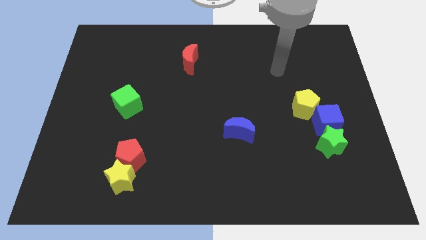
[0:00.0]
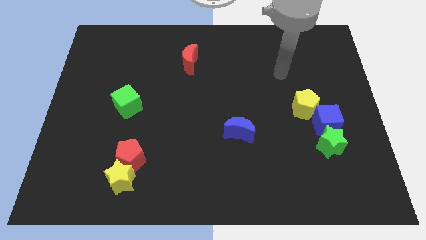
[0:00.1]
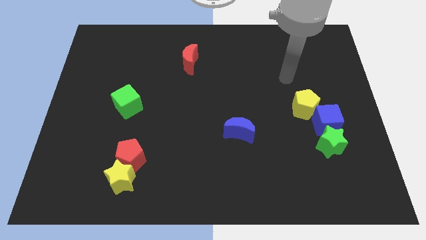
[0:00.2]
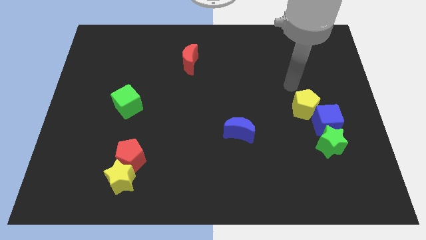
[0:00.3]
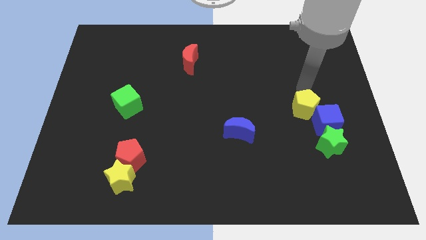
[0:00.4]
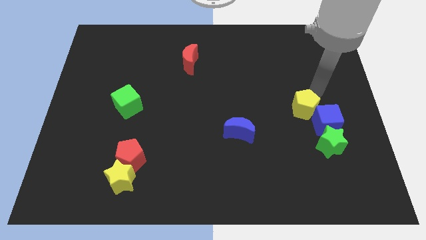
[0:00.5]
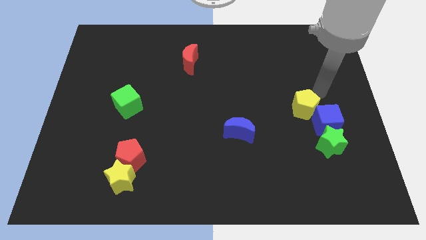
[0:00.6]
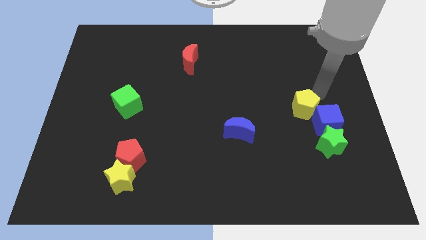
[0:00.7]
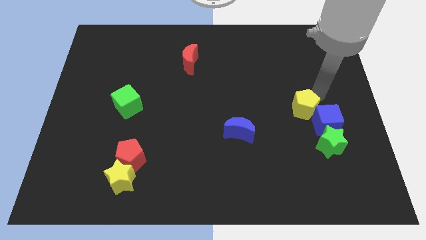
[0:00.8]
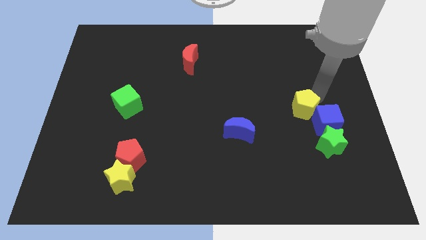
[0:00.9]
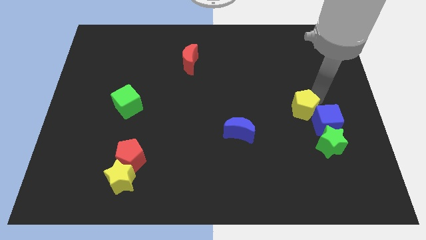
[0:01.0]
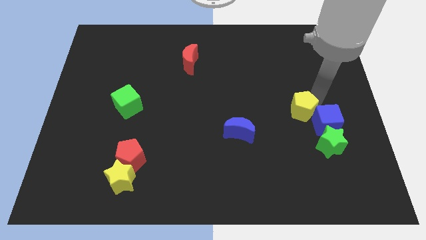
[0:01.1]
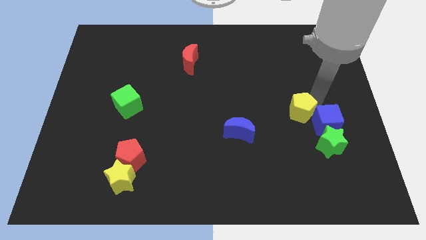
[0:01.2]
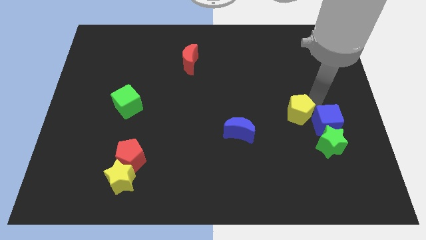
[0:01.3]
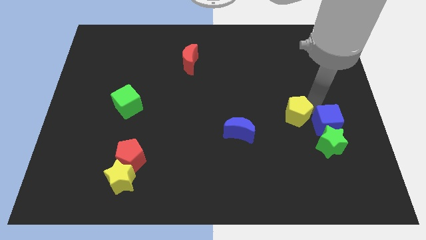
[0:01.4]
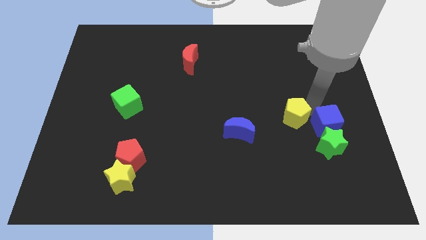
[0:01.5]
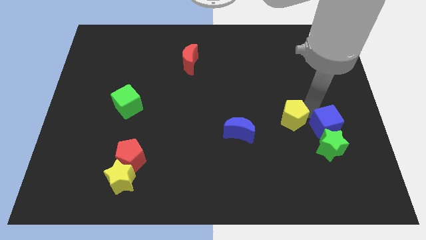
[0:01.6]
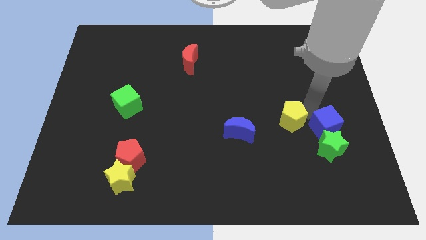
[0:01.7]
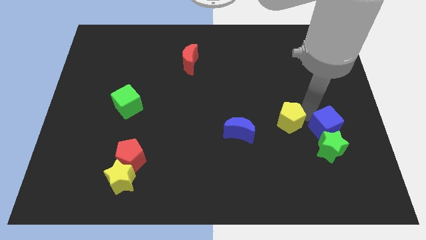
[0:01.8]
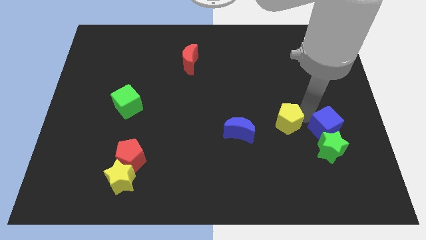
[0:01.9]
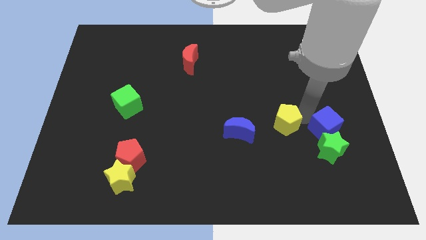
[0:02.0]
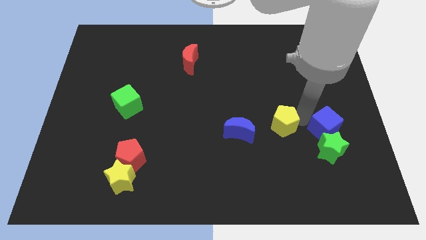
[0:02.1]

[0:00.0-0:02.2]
push the yellow pentagon diagonally downwards and left slightly

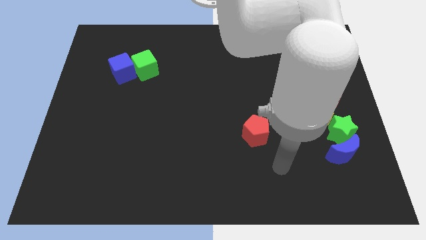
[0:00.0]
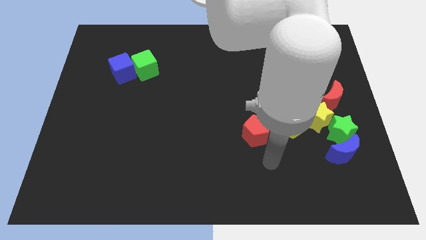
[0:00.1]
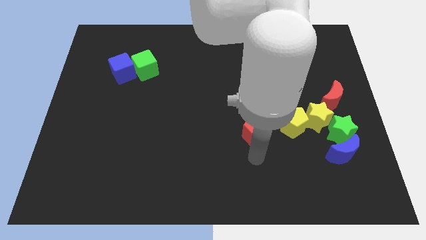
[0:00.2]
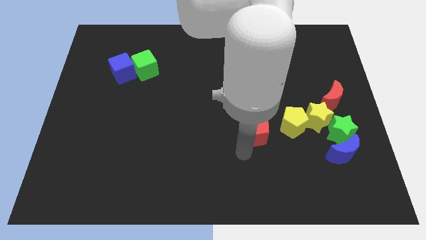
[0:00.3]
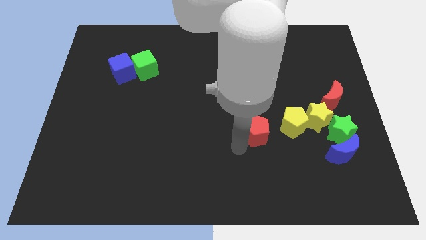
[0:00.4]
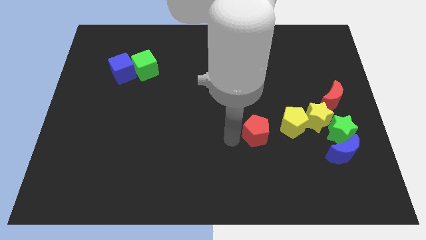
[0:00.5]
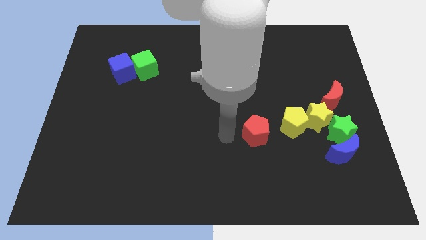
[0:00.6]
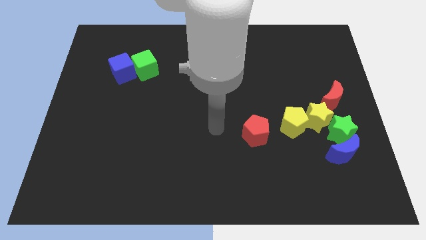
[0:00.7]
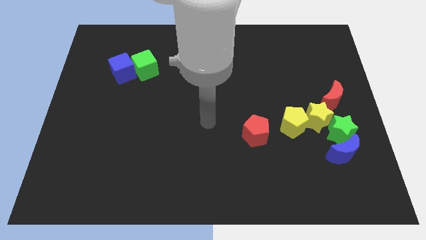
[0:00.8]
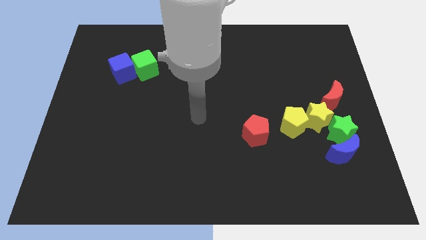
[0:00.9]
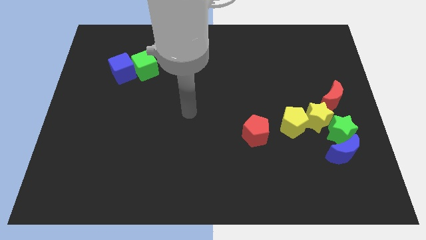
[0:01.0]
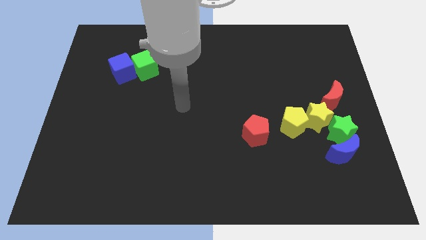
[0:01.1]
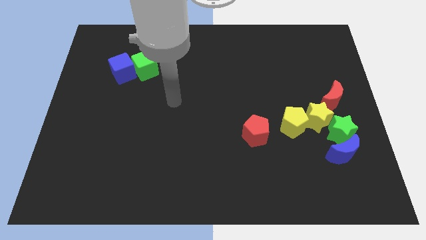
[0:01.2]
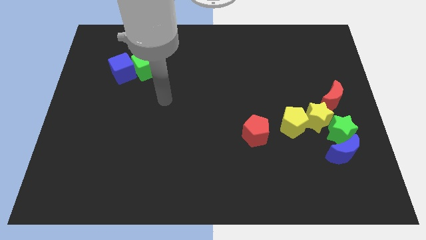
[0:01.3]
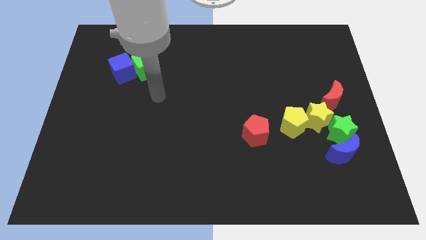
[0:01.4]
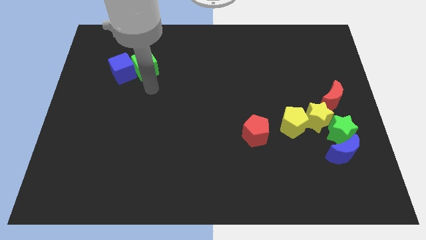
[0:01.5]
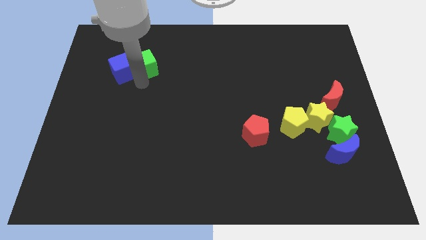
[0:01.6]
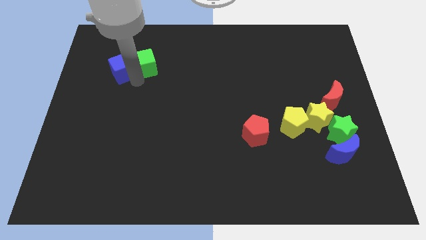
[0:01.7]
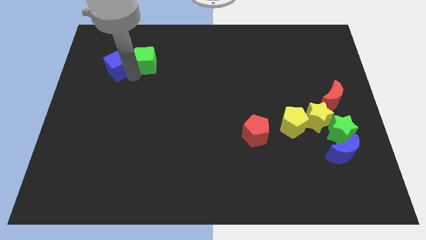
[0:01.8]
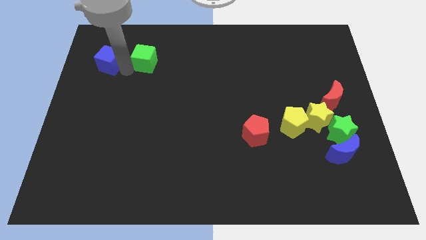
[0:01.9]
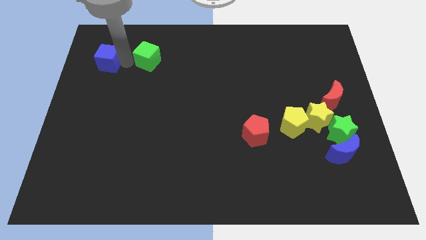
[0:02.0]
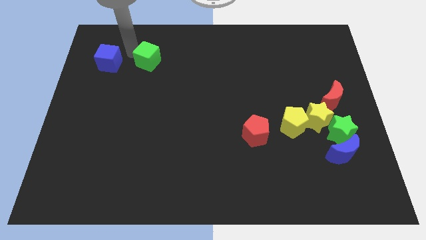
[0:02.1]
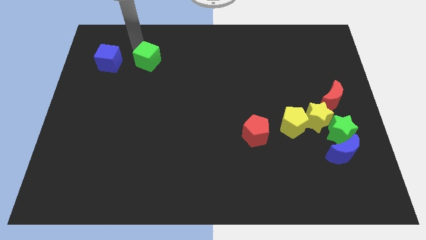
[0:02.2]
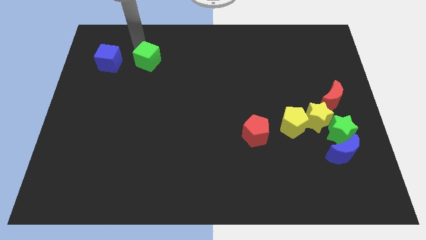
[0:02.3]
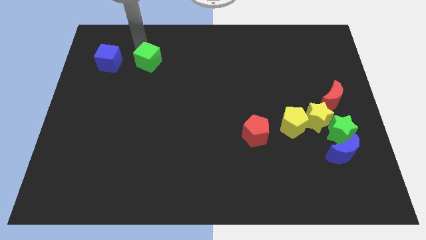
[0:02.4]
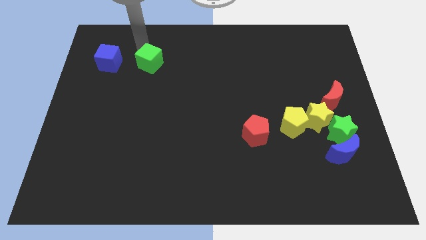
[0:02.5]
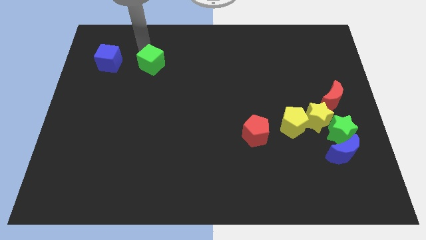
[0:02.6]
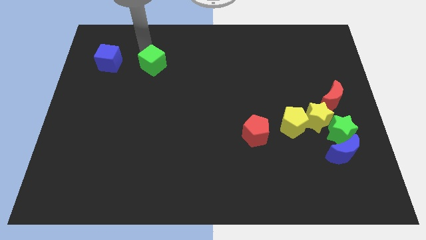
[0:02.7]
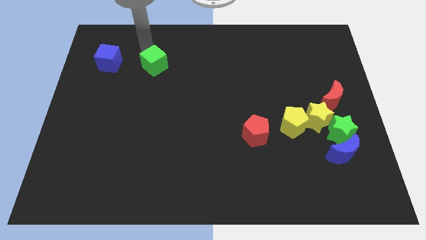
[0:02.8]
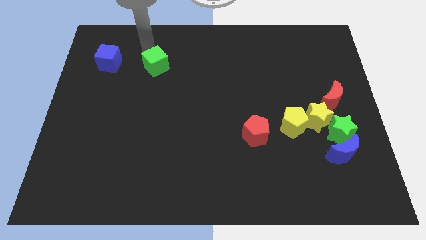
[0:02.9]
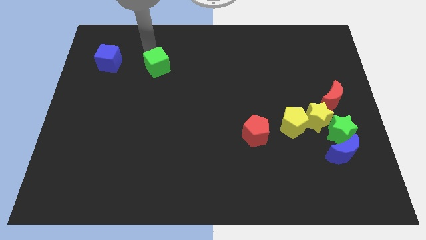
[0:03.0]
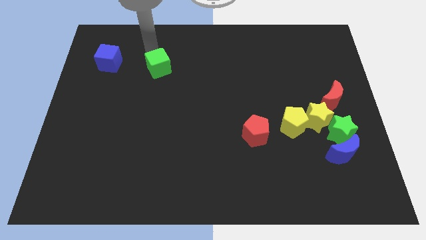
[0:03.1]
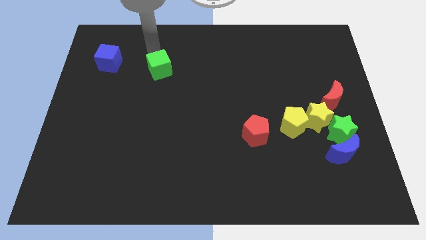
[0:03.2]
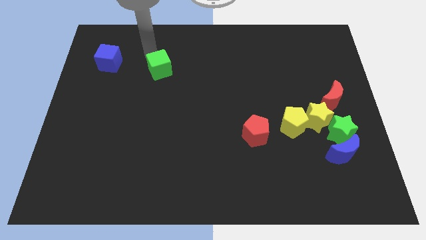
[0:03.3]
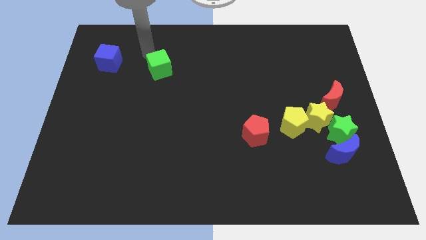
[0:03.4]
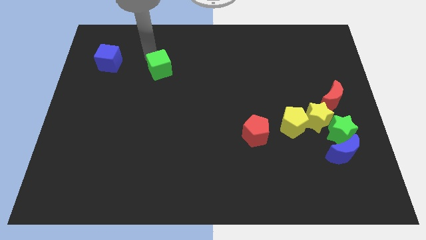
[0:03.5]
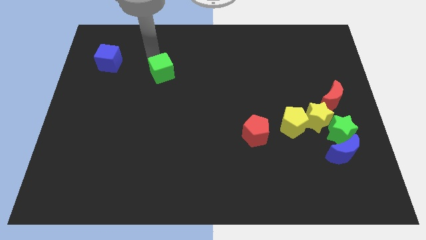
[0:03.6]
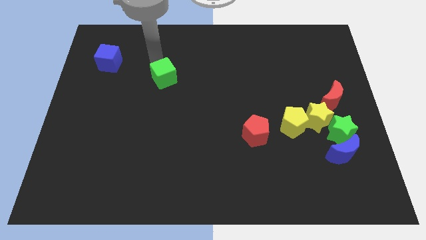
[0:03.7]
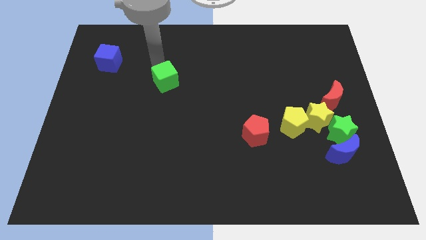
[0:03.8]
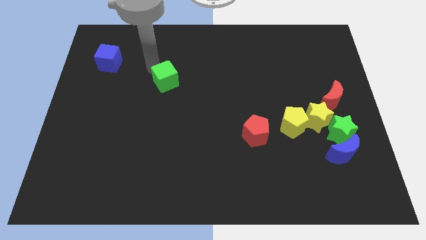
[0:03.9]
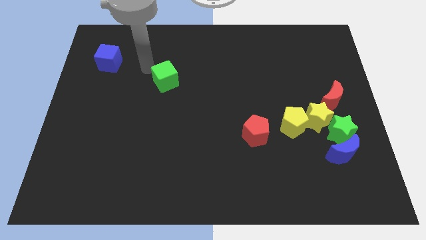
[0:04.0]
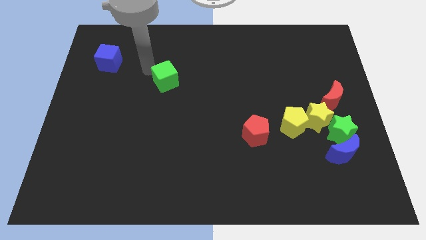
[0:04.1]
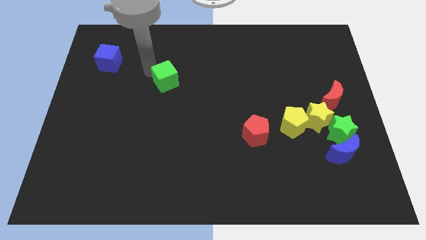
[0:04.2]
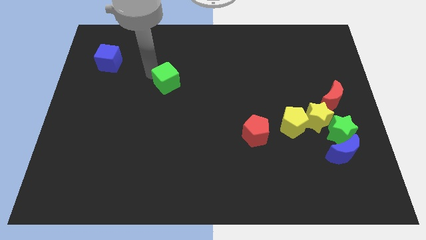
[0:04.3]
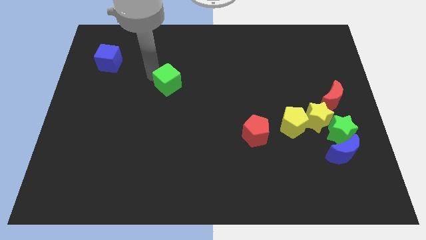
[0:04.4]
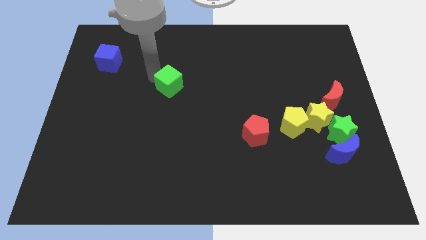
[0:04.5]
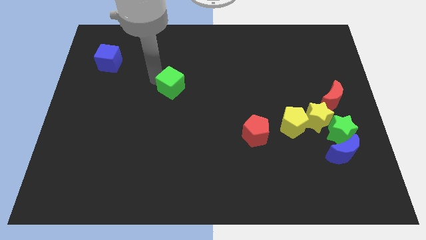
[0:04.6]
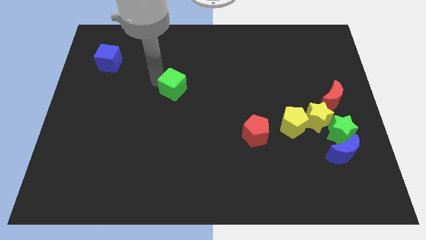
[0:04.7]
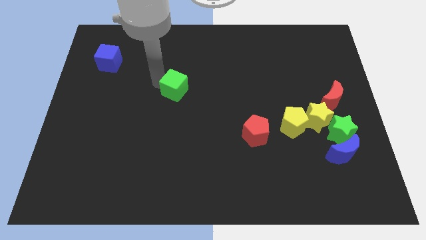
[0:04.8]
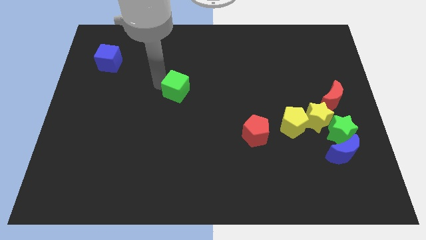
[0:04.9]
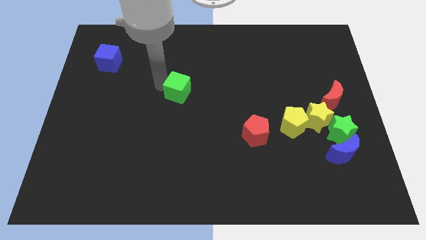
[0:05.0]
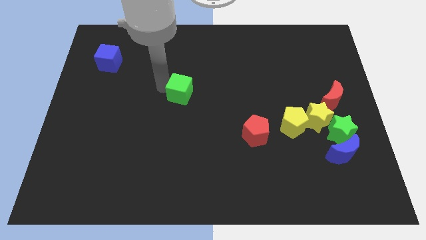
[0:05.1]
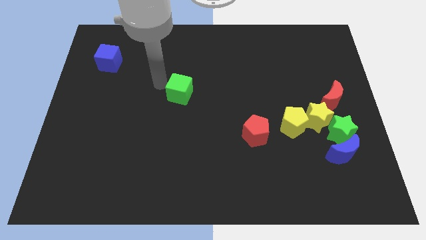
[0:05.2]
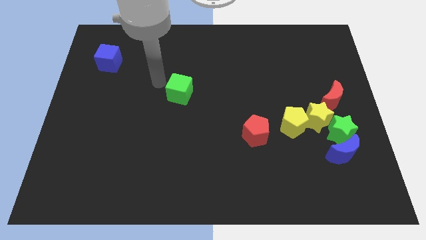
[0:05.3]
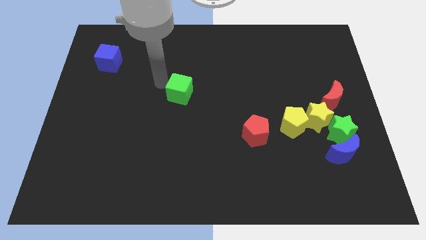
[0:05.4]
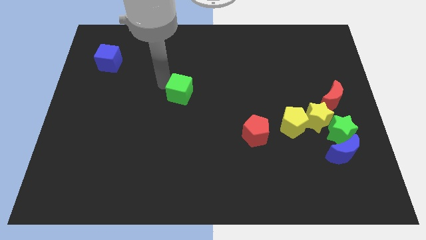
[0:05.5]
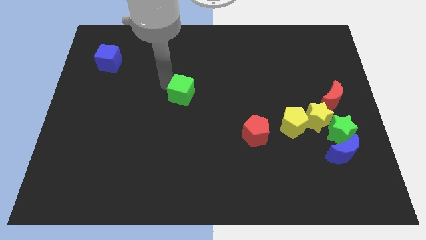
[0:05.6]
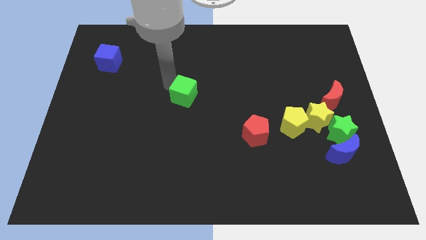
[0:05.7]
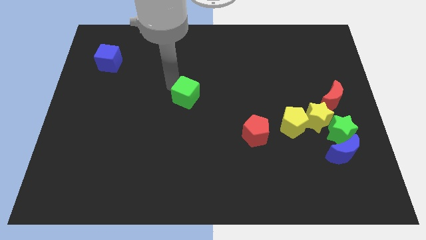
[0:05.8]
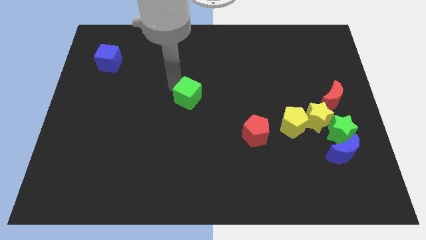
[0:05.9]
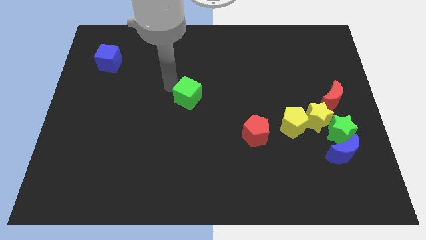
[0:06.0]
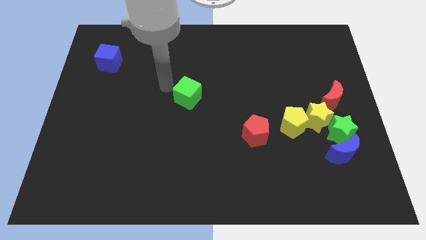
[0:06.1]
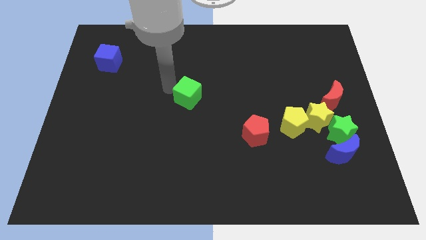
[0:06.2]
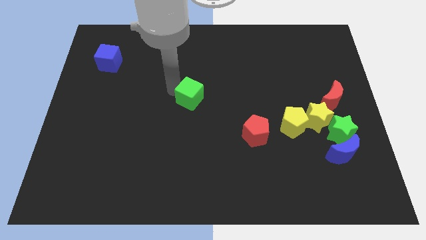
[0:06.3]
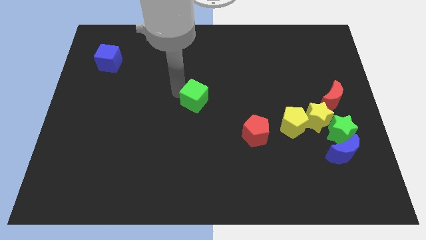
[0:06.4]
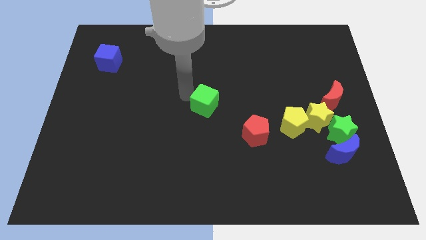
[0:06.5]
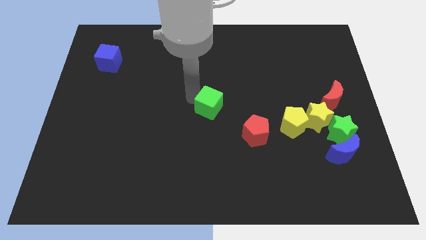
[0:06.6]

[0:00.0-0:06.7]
push the green cube diagonally downwards and right
